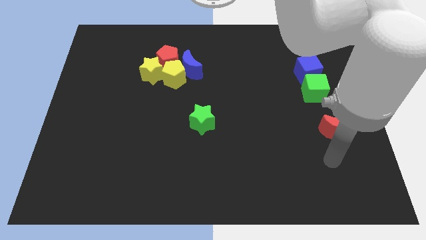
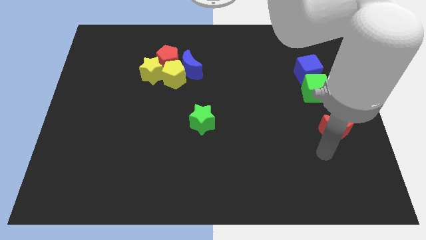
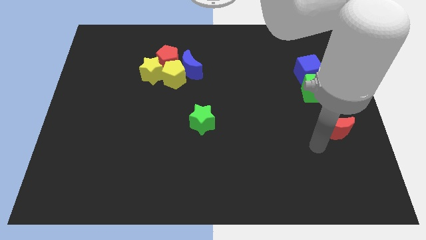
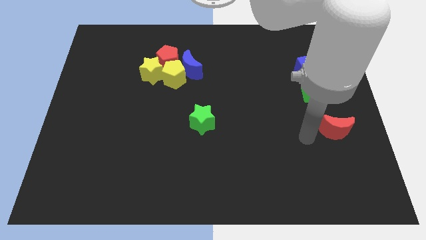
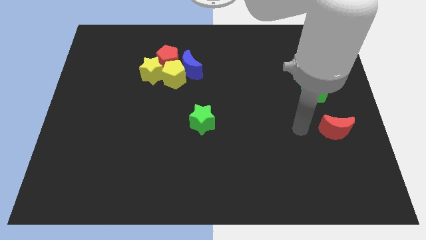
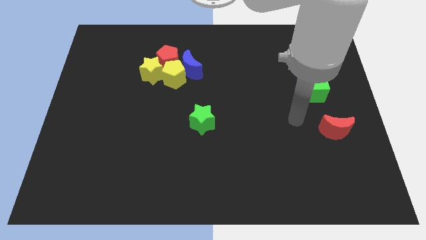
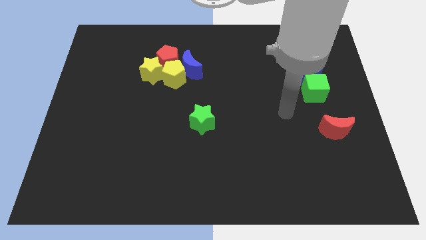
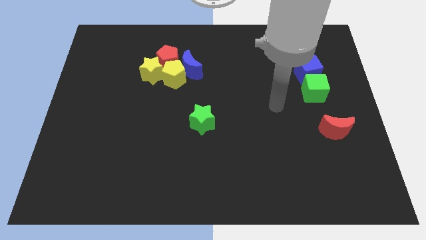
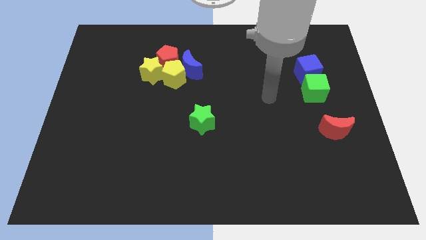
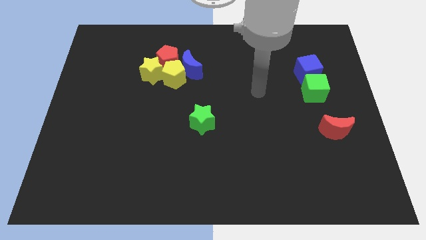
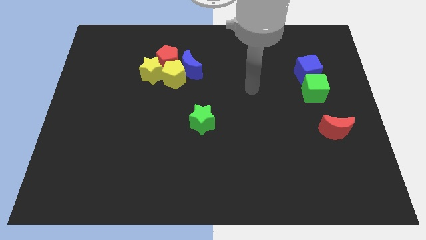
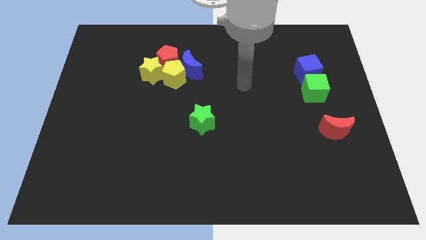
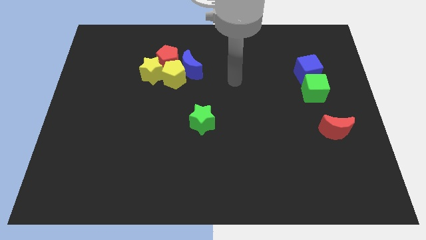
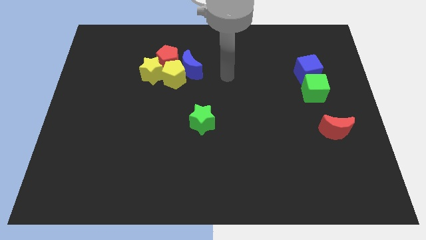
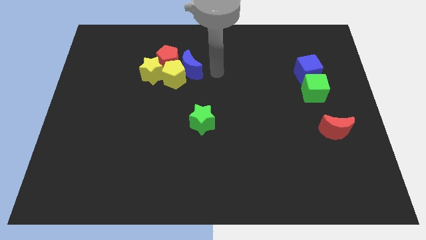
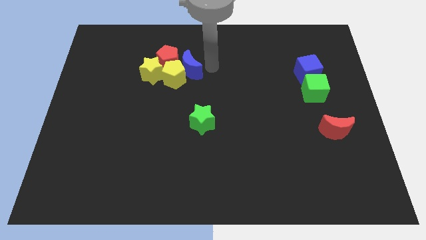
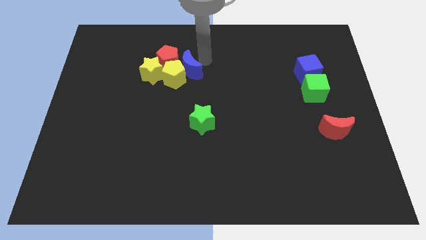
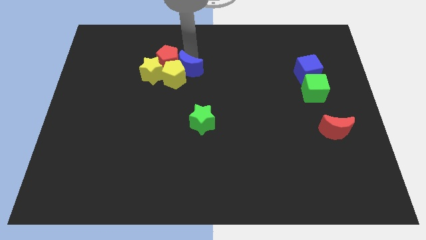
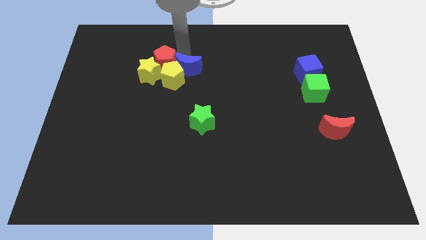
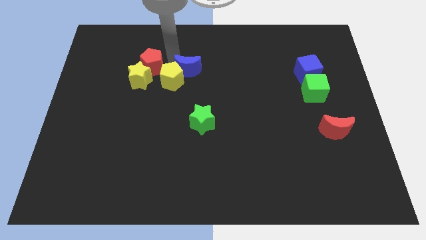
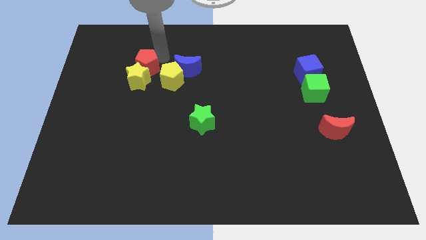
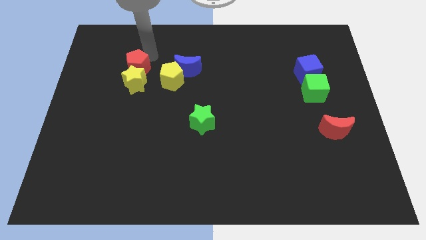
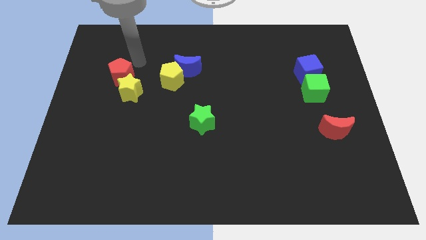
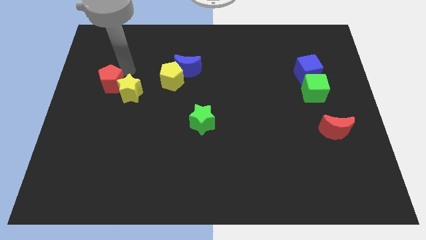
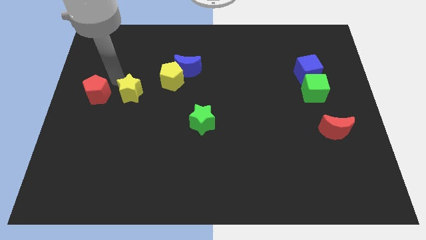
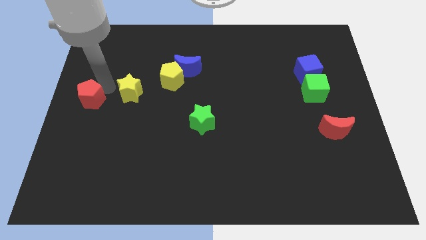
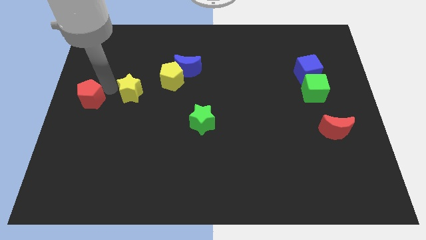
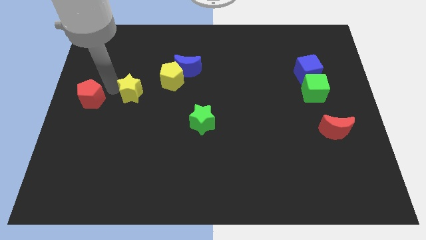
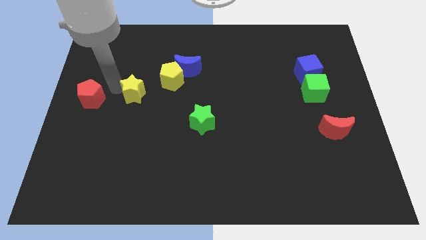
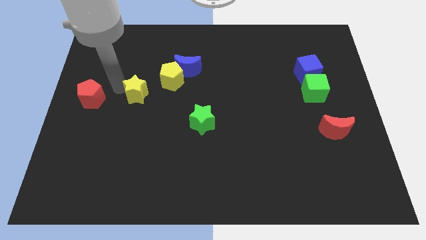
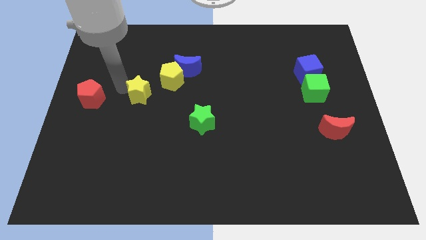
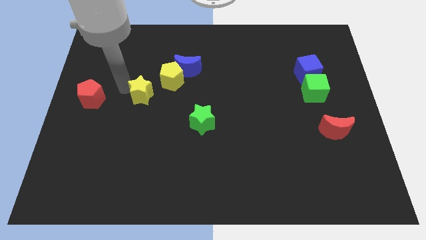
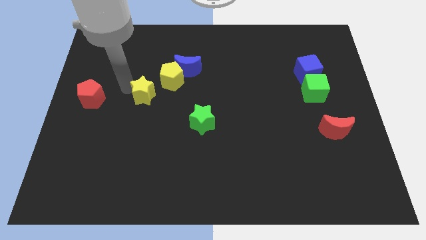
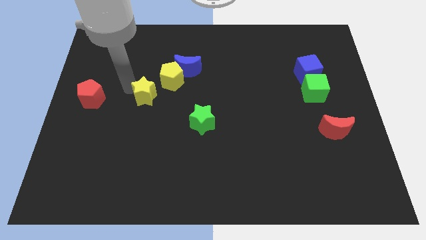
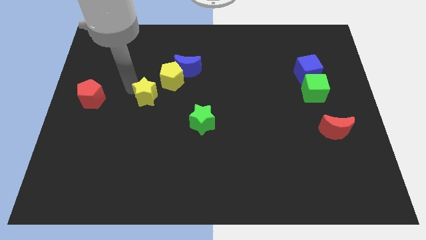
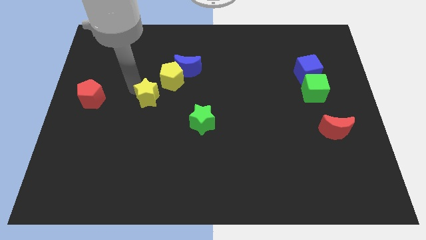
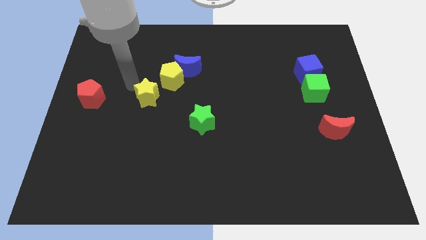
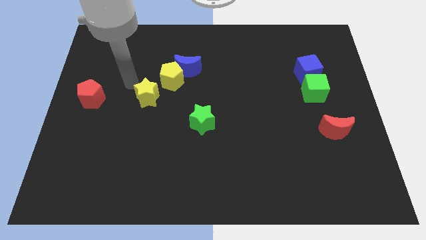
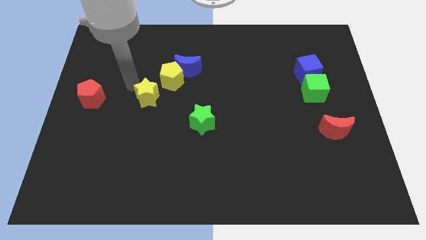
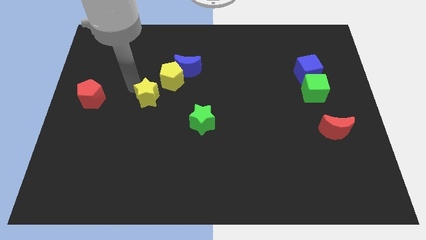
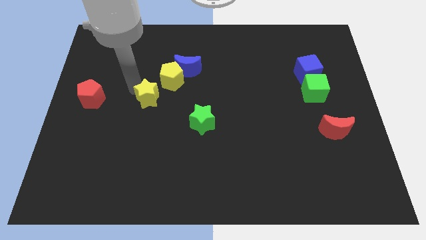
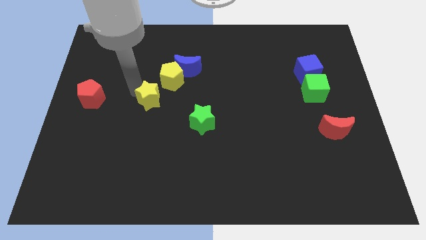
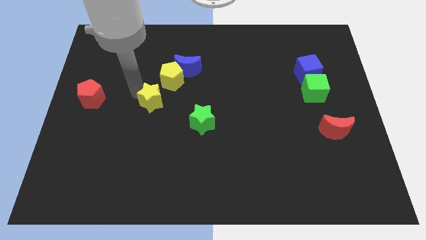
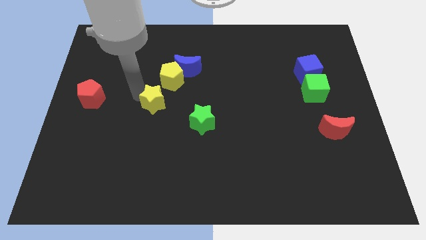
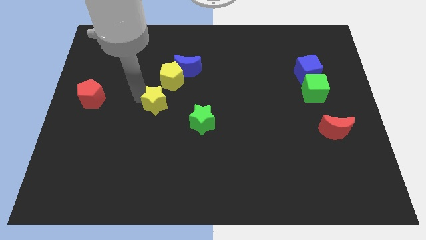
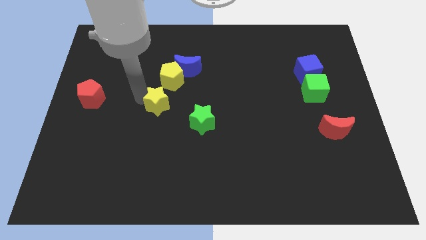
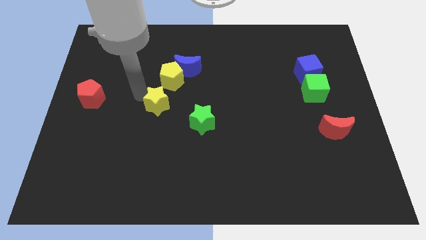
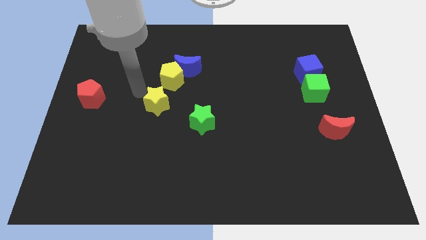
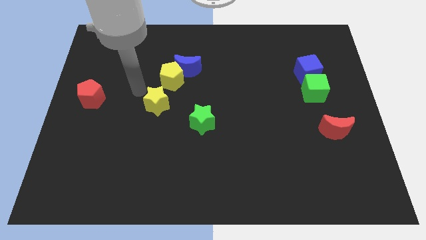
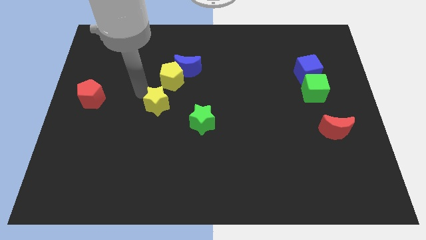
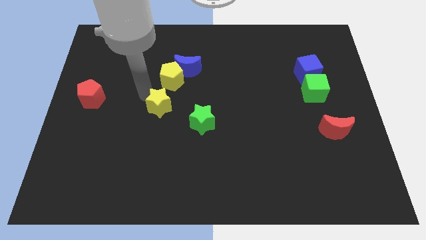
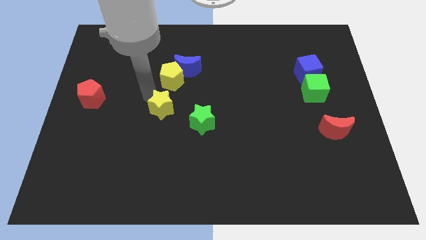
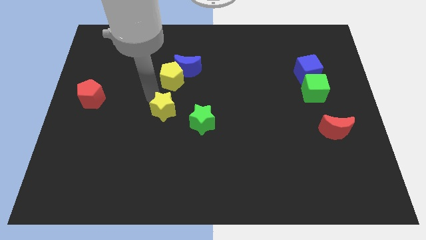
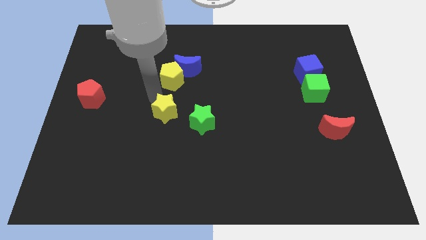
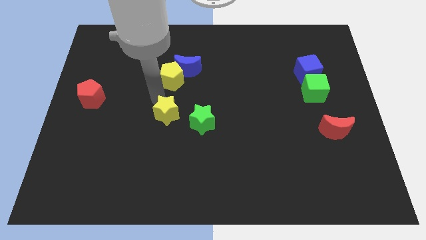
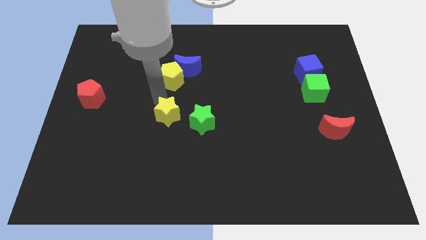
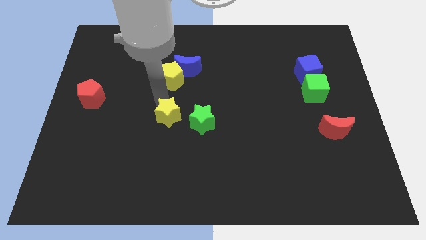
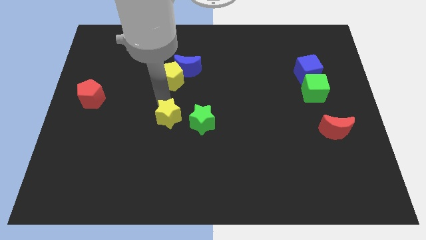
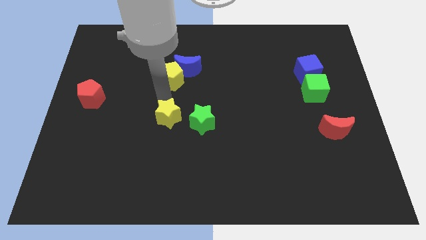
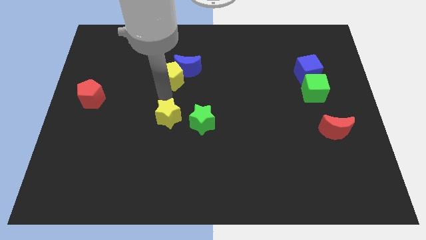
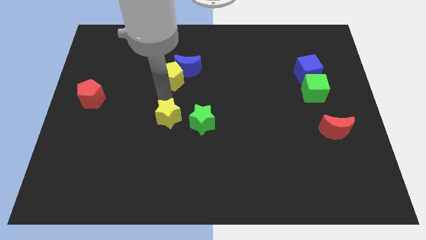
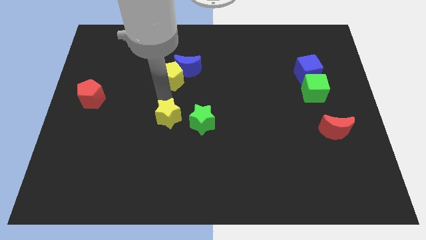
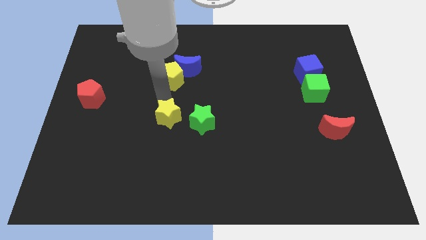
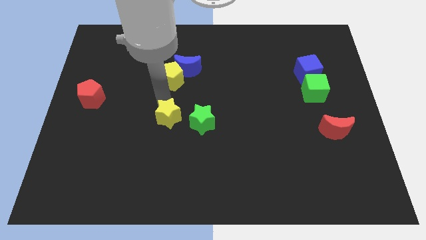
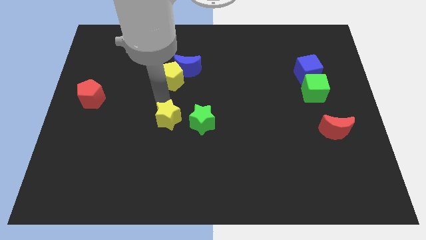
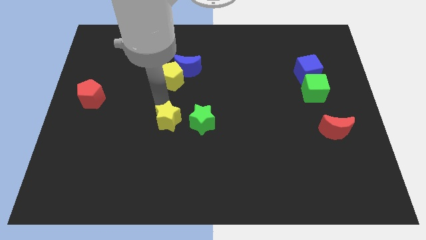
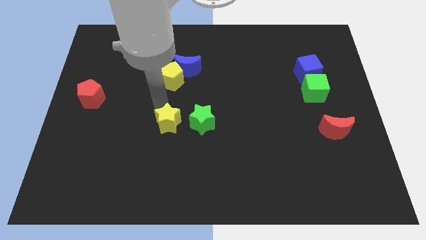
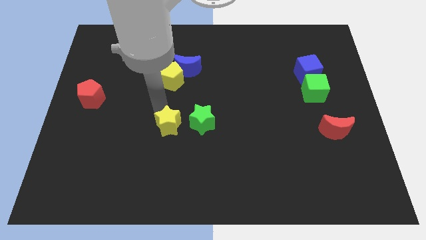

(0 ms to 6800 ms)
move the yellow star to the bottom left side of the green star

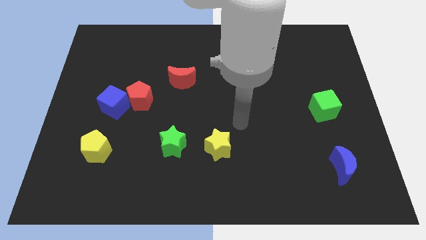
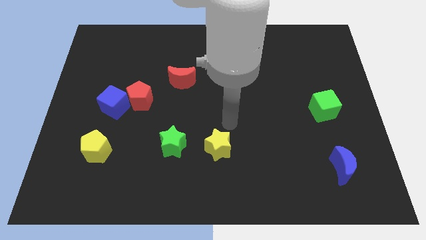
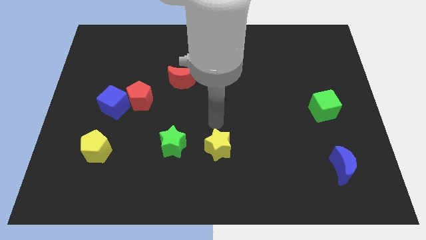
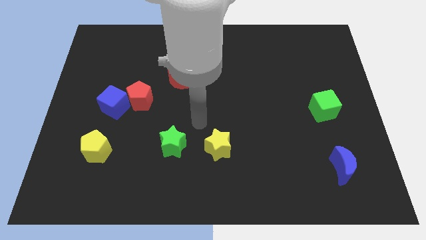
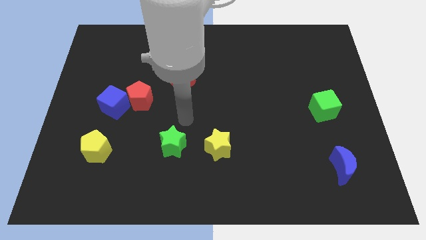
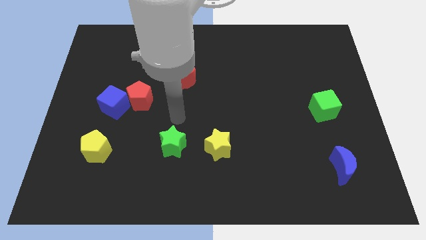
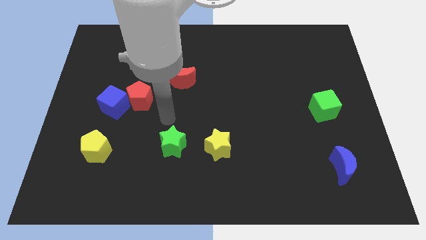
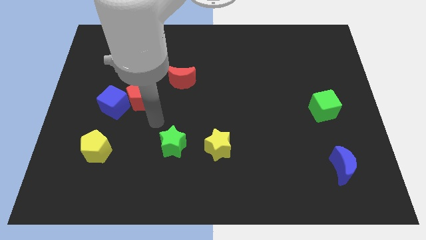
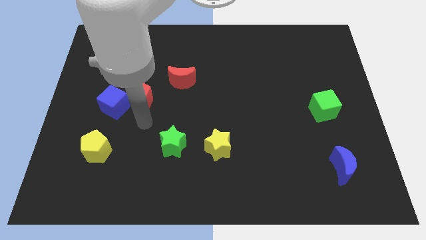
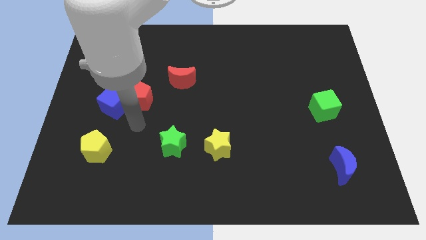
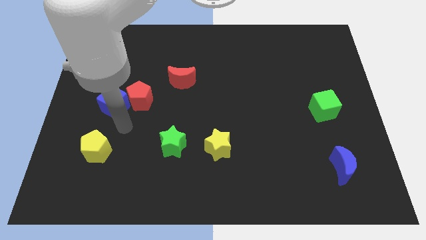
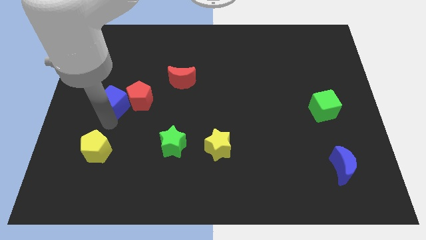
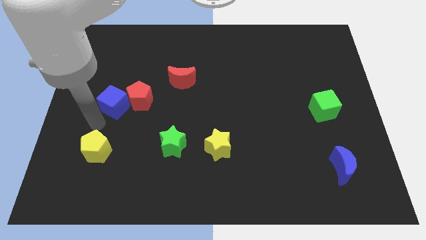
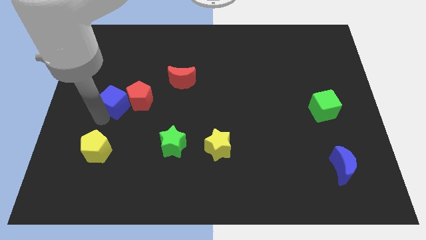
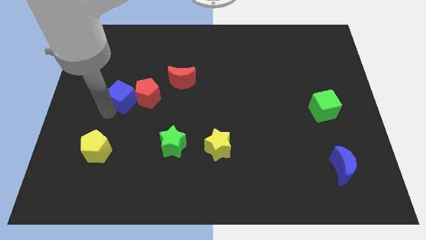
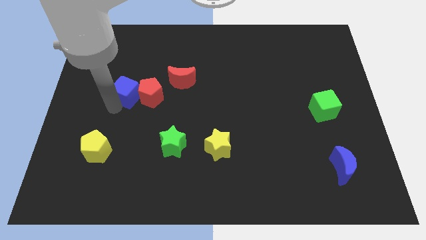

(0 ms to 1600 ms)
slide the blue cube to the left side of the red moon
